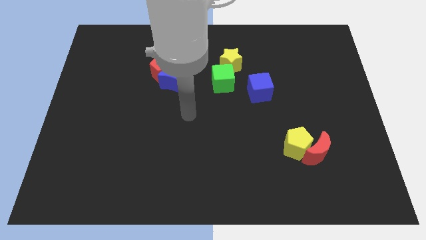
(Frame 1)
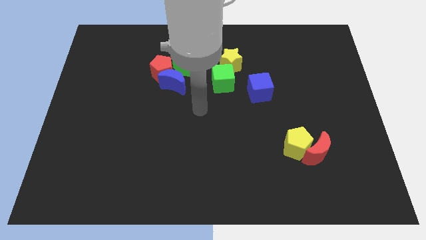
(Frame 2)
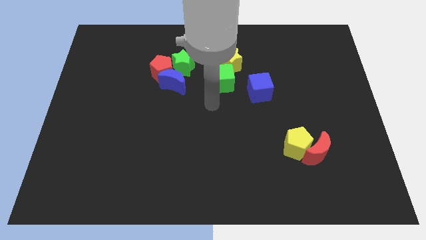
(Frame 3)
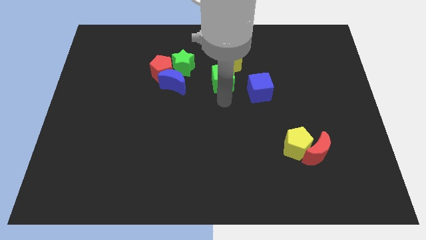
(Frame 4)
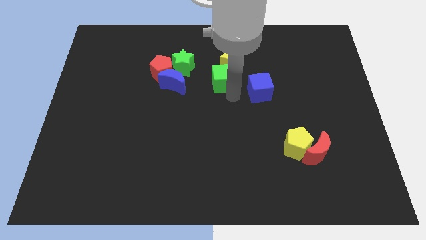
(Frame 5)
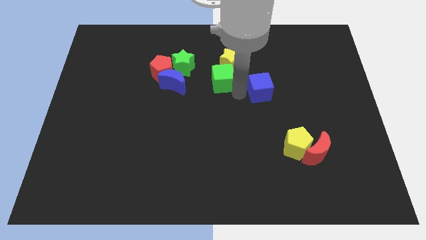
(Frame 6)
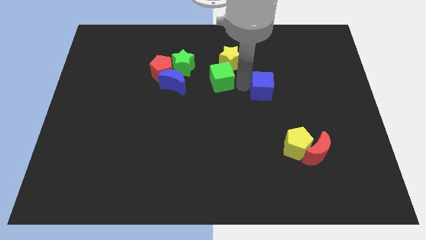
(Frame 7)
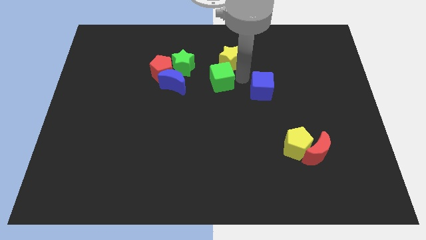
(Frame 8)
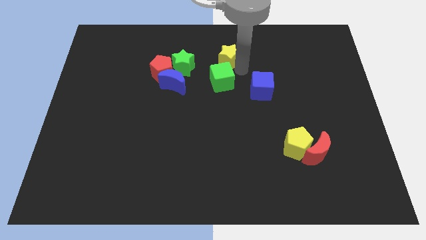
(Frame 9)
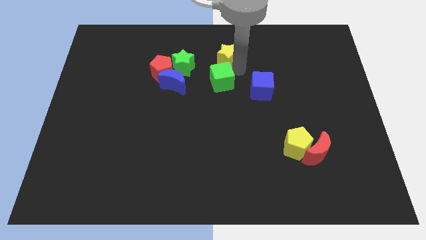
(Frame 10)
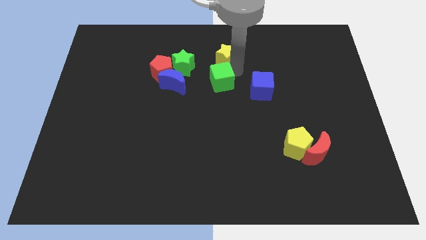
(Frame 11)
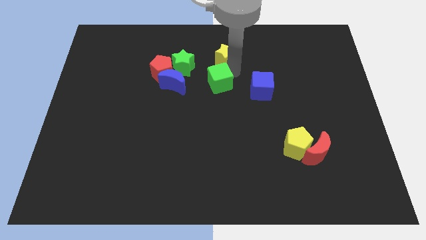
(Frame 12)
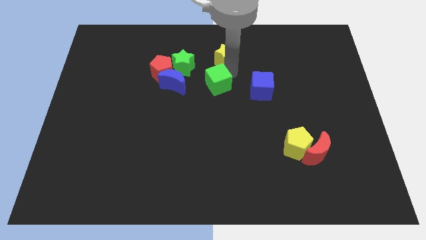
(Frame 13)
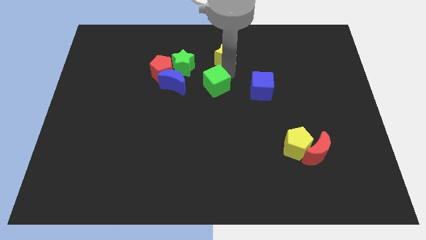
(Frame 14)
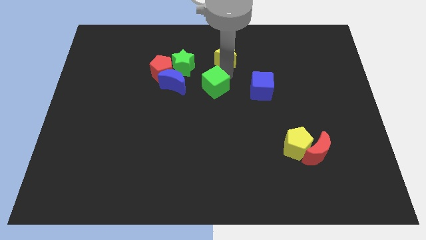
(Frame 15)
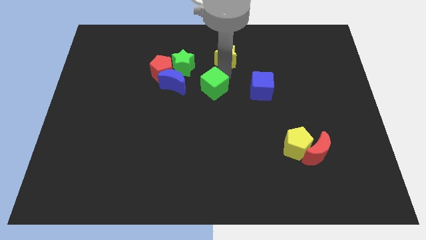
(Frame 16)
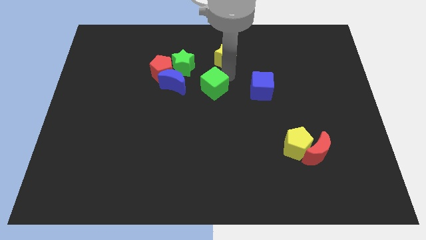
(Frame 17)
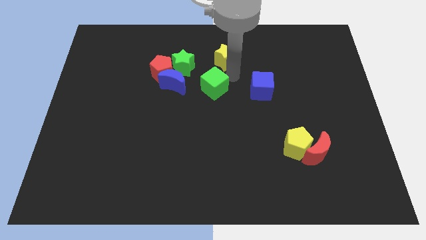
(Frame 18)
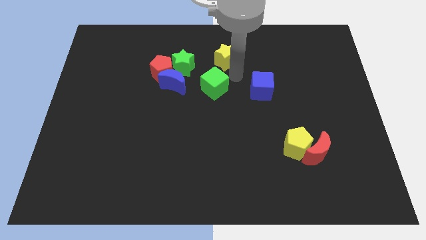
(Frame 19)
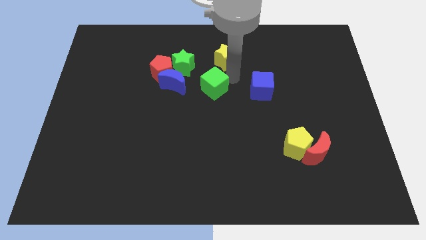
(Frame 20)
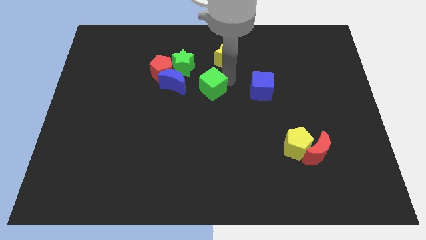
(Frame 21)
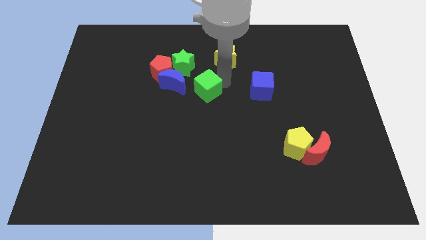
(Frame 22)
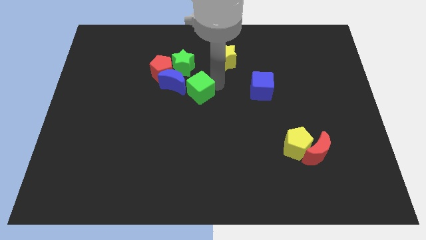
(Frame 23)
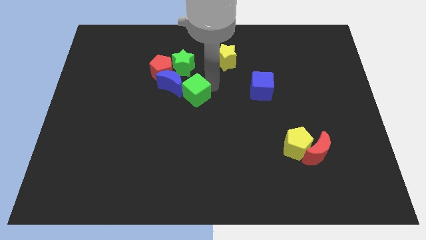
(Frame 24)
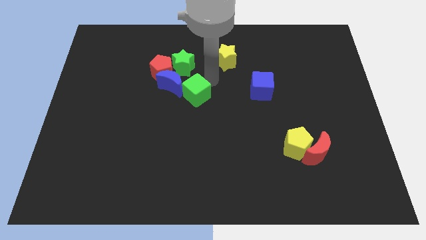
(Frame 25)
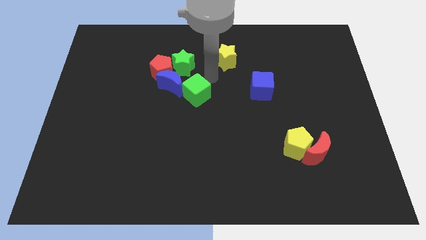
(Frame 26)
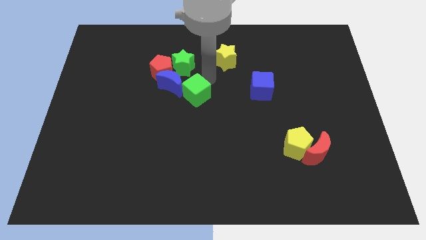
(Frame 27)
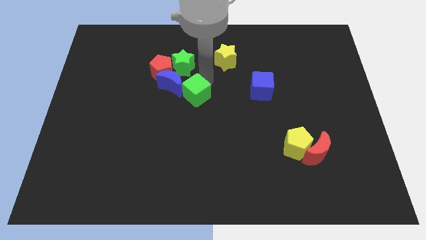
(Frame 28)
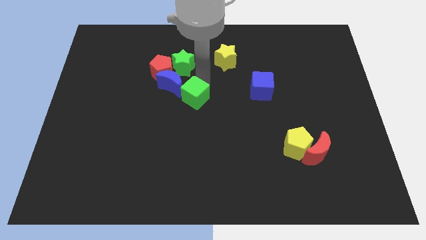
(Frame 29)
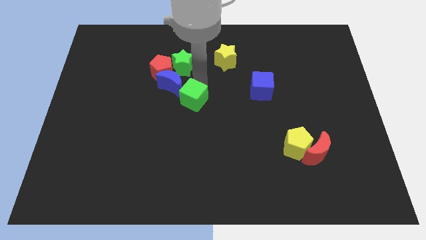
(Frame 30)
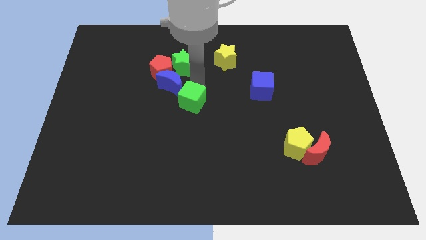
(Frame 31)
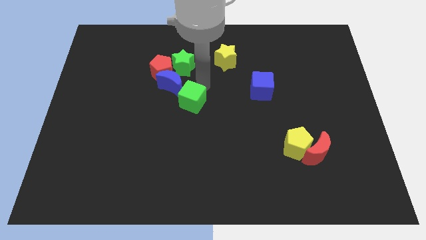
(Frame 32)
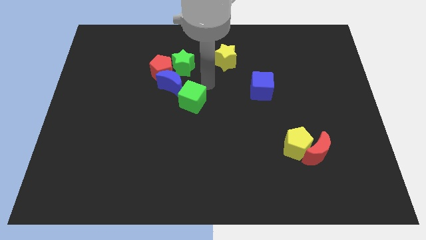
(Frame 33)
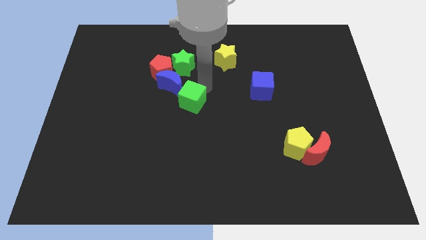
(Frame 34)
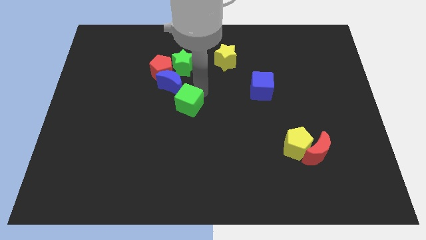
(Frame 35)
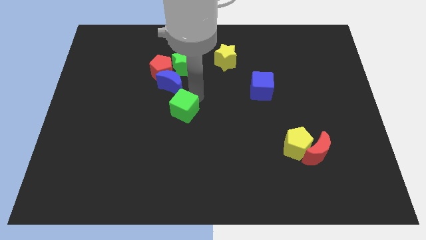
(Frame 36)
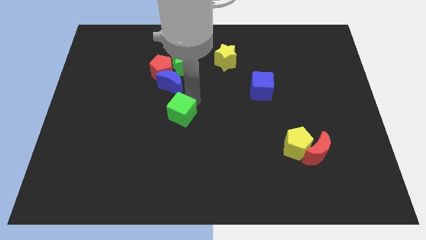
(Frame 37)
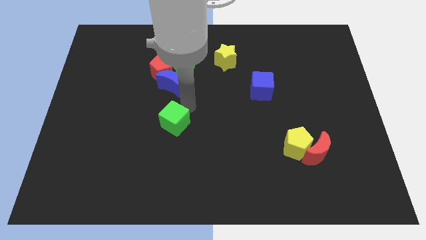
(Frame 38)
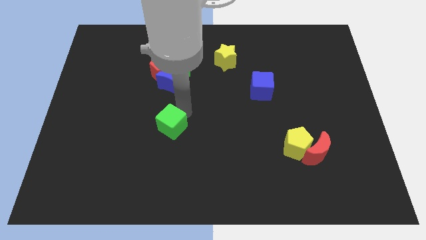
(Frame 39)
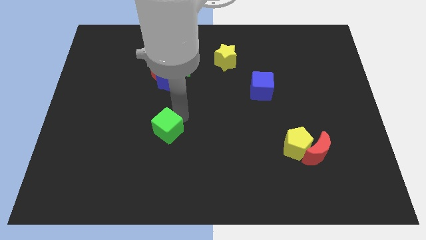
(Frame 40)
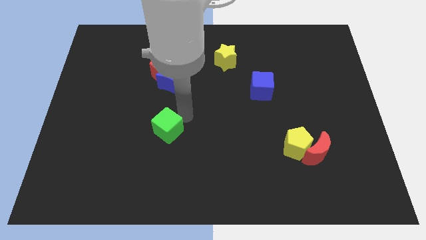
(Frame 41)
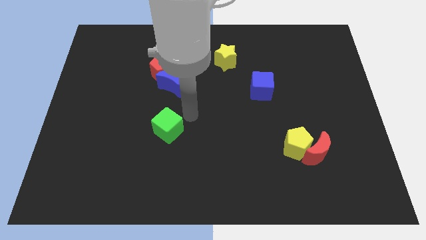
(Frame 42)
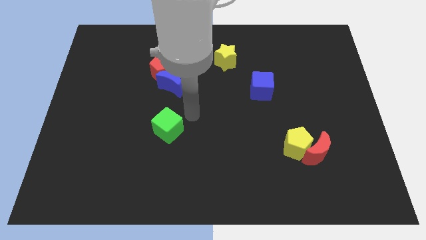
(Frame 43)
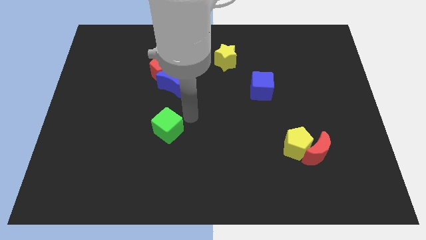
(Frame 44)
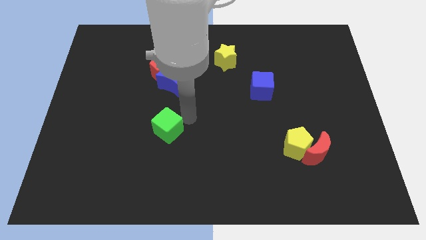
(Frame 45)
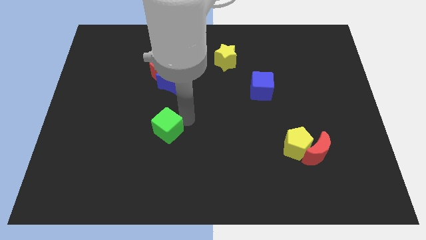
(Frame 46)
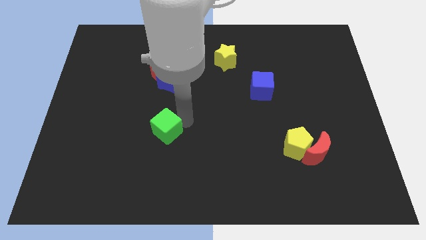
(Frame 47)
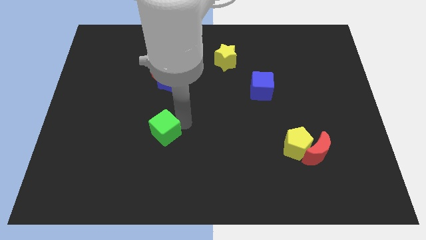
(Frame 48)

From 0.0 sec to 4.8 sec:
push the green cube diagonally down and left

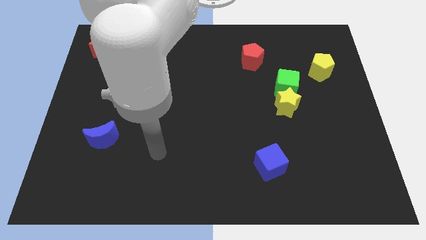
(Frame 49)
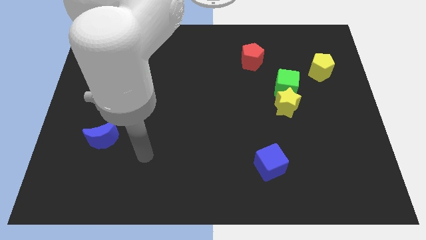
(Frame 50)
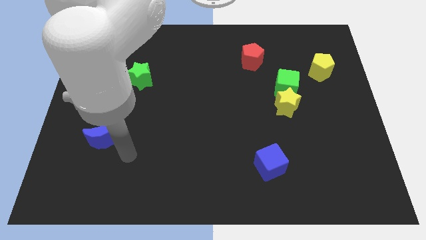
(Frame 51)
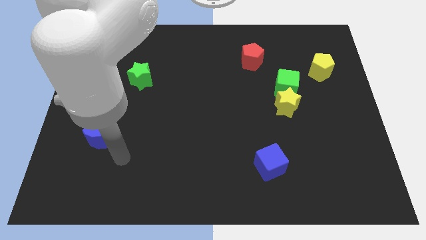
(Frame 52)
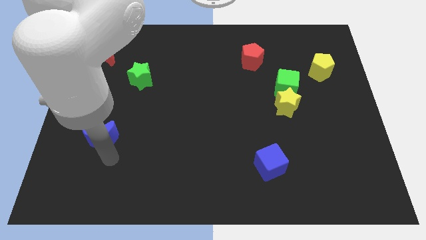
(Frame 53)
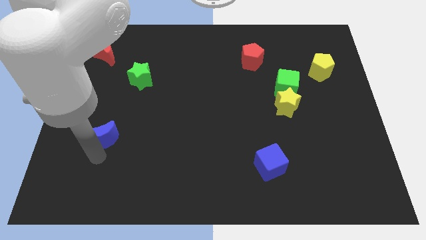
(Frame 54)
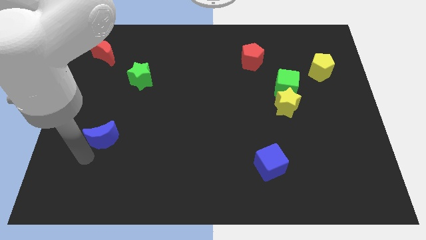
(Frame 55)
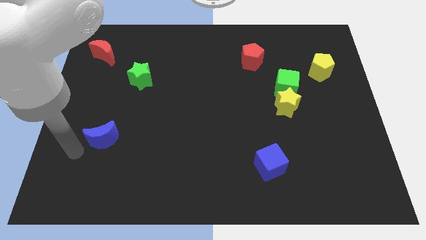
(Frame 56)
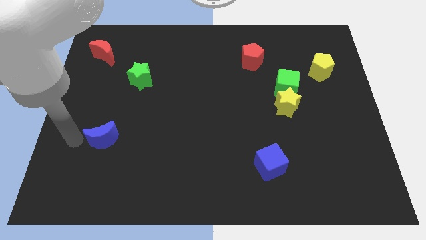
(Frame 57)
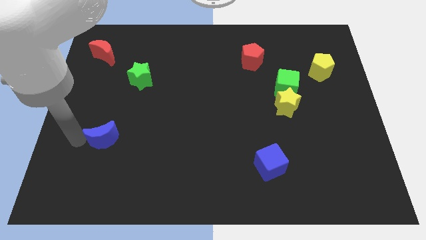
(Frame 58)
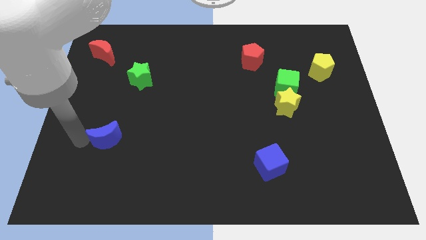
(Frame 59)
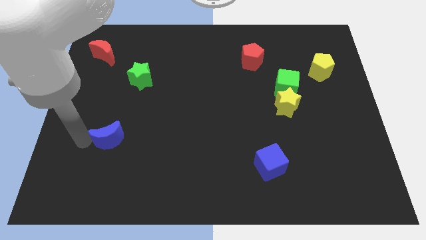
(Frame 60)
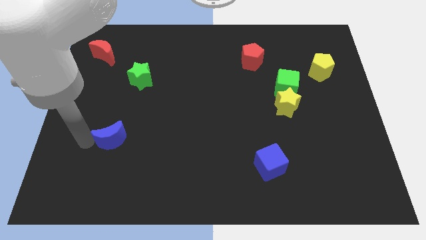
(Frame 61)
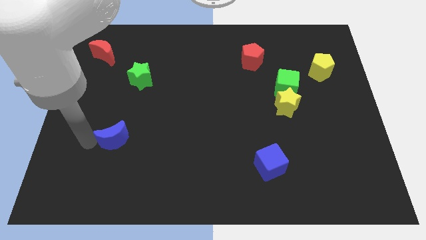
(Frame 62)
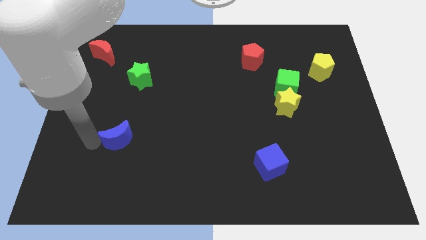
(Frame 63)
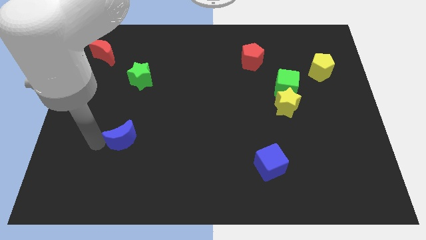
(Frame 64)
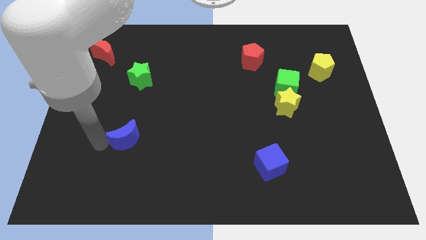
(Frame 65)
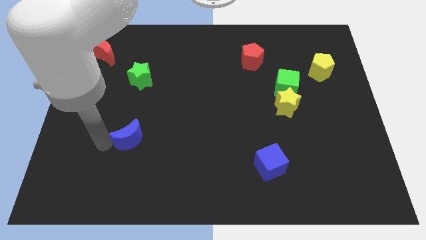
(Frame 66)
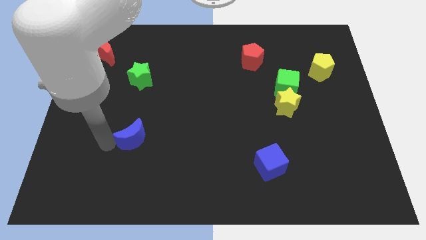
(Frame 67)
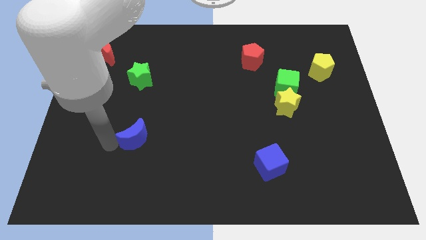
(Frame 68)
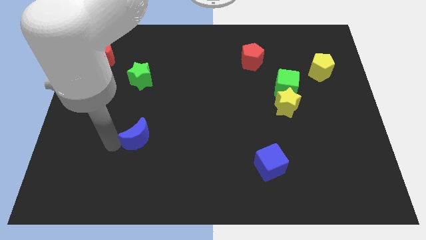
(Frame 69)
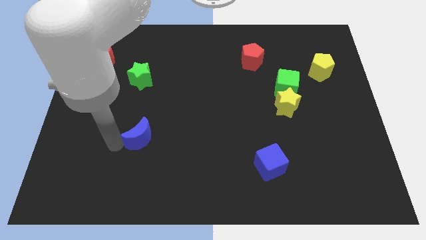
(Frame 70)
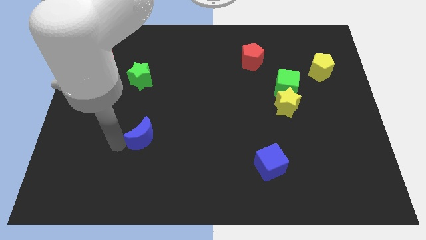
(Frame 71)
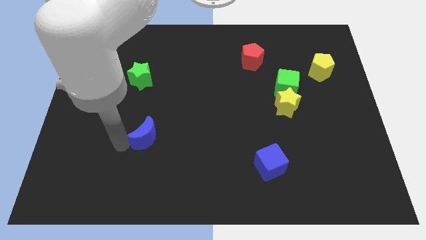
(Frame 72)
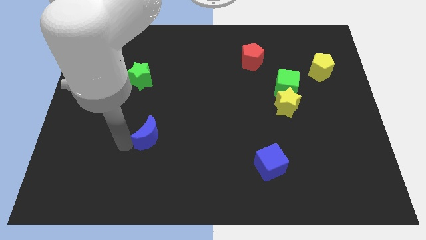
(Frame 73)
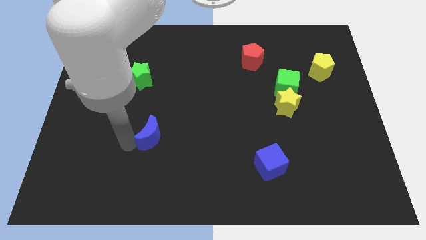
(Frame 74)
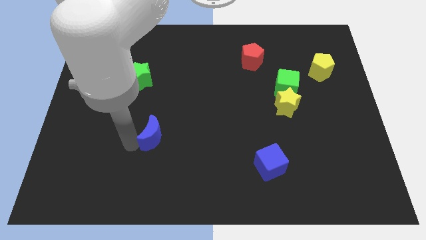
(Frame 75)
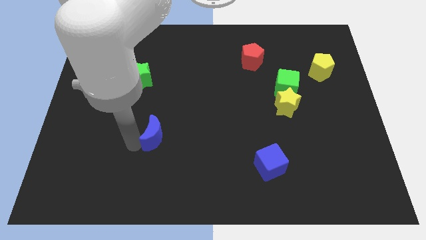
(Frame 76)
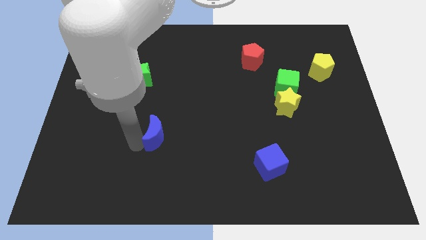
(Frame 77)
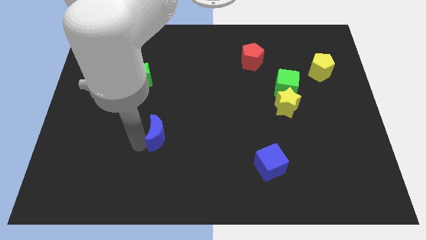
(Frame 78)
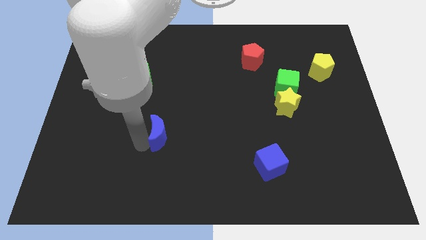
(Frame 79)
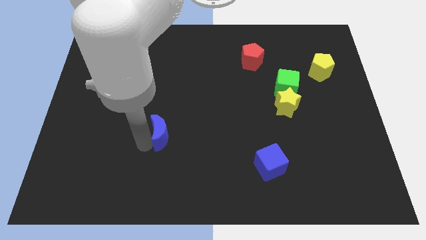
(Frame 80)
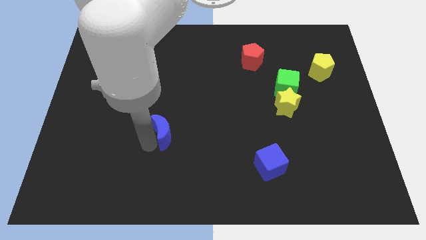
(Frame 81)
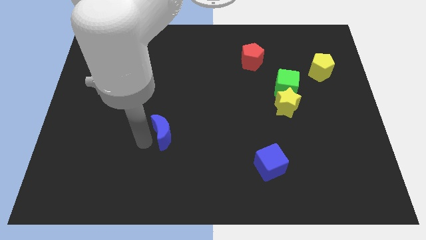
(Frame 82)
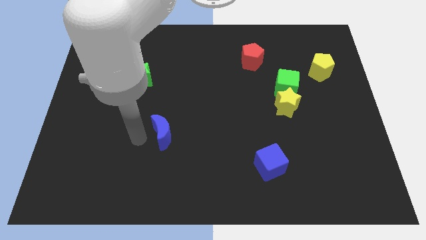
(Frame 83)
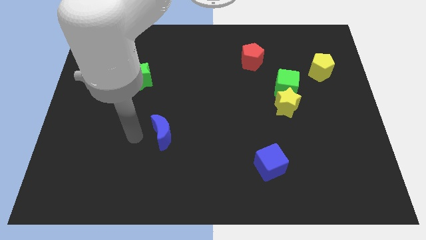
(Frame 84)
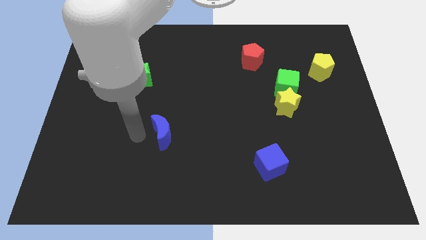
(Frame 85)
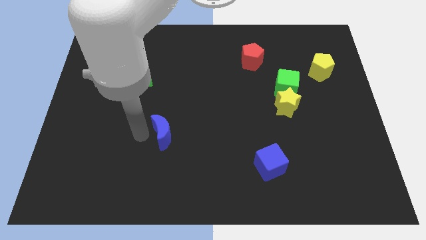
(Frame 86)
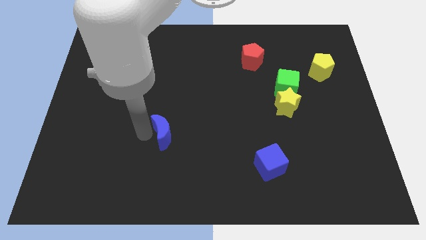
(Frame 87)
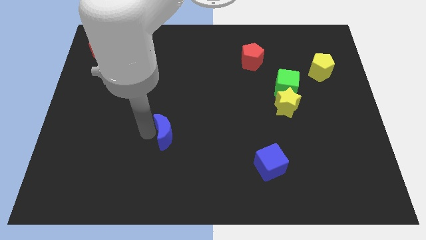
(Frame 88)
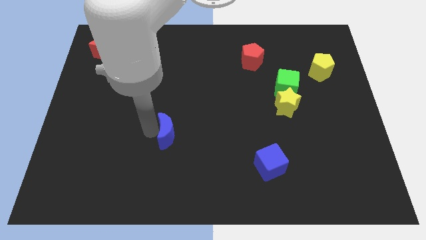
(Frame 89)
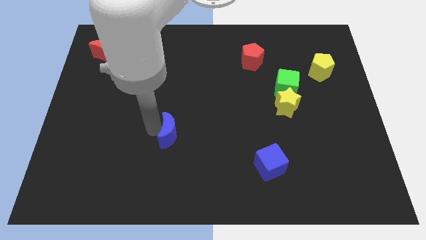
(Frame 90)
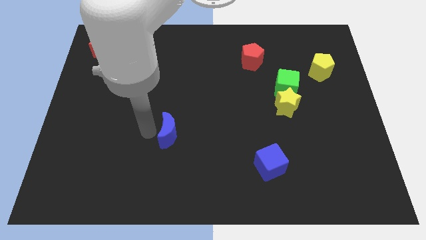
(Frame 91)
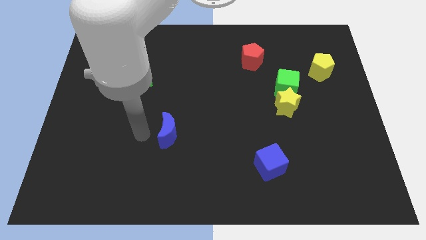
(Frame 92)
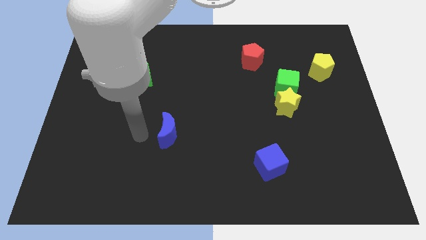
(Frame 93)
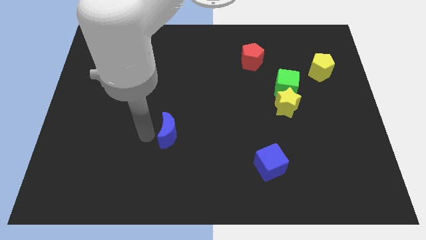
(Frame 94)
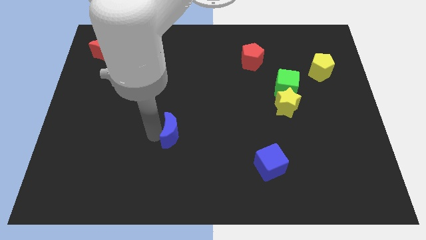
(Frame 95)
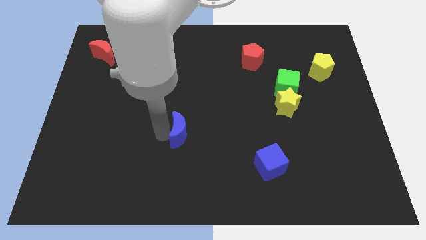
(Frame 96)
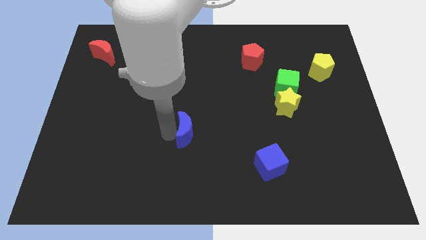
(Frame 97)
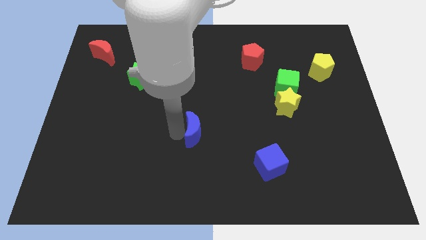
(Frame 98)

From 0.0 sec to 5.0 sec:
push the blue moon to the right
